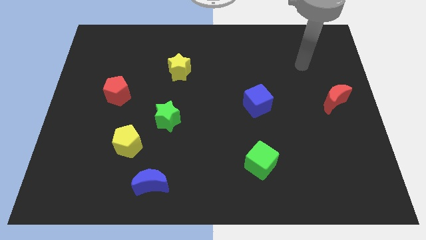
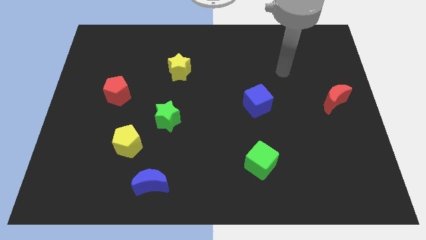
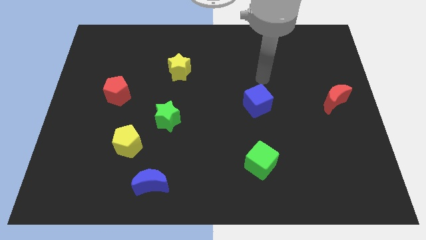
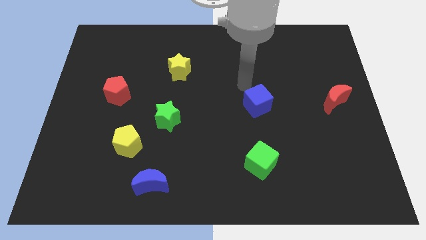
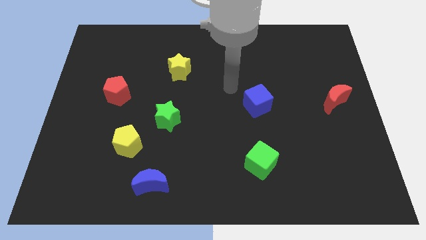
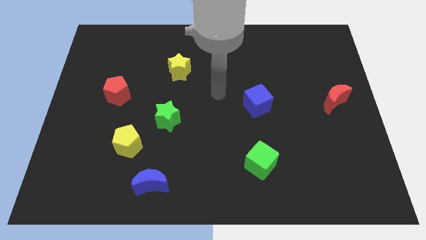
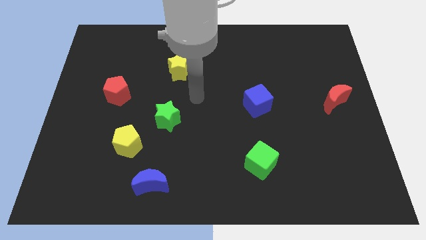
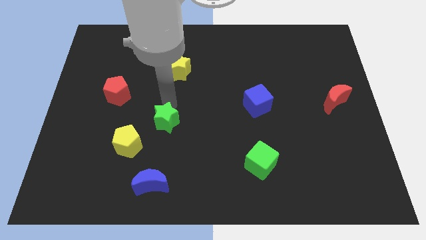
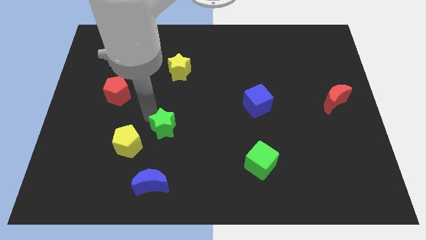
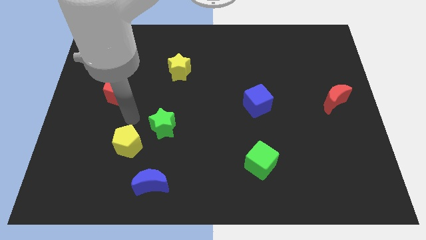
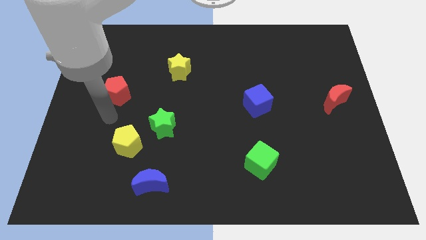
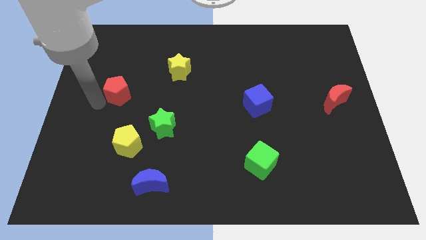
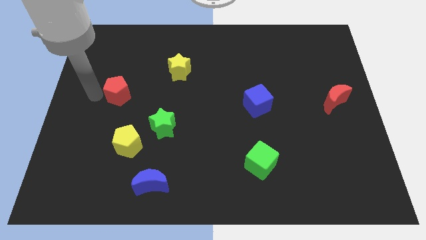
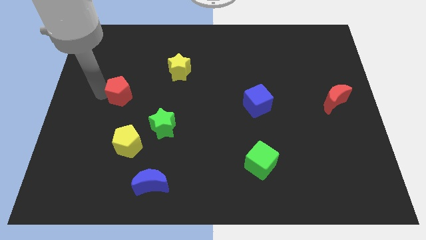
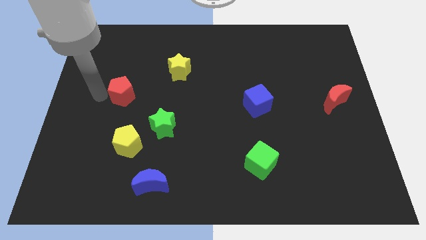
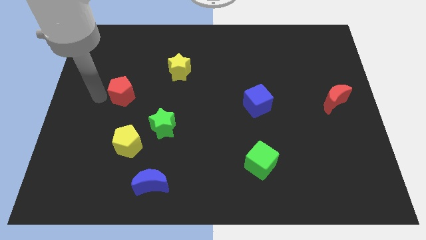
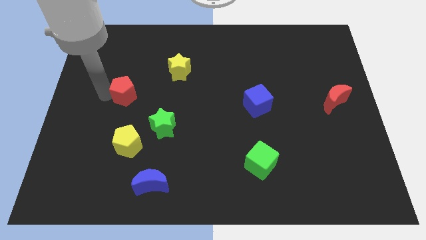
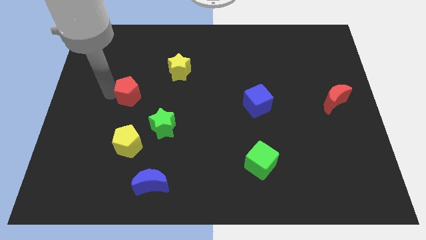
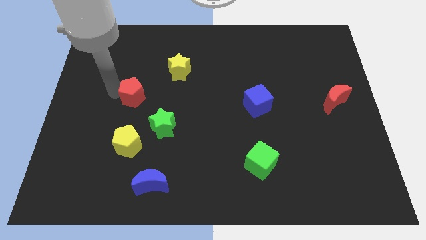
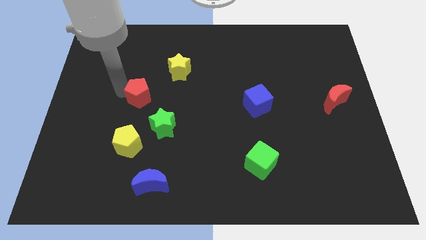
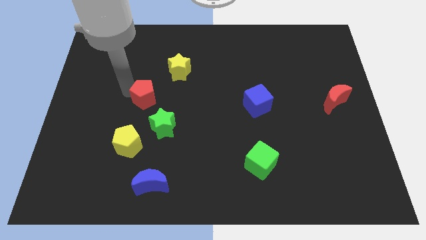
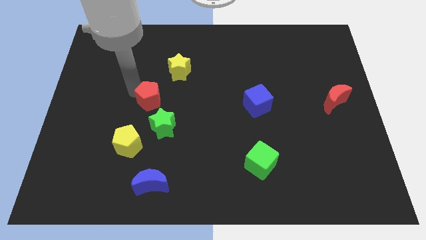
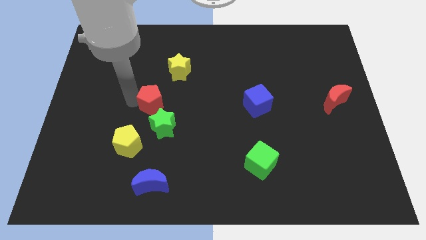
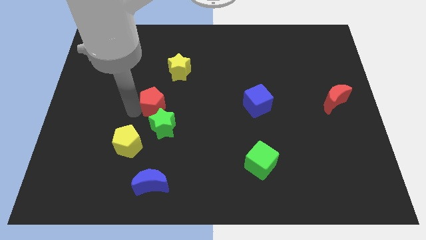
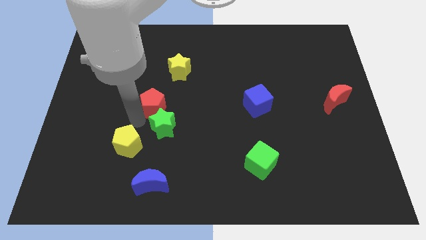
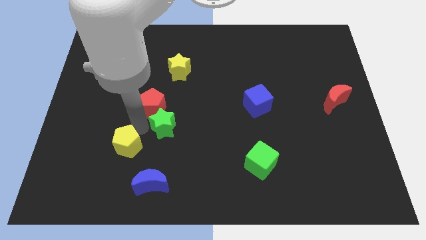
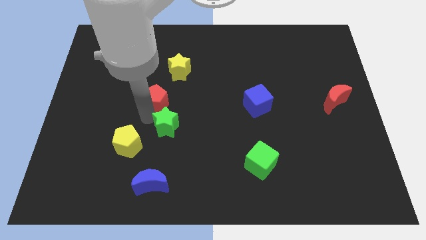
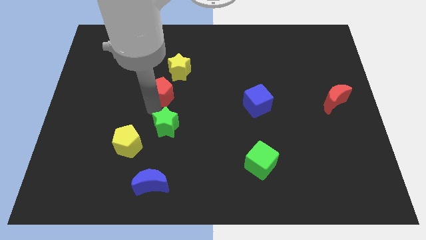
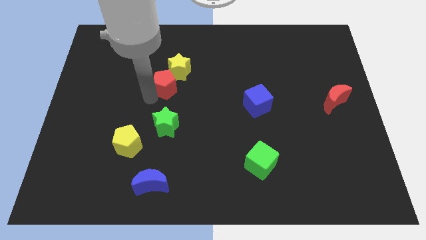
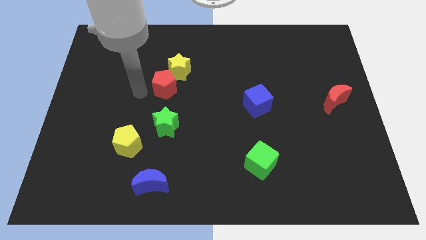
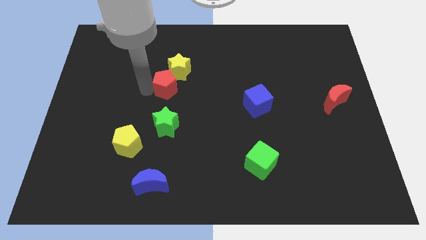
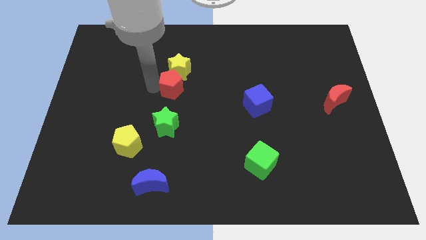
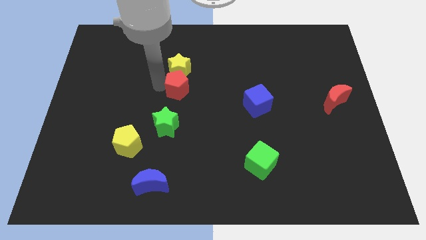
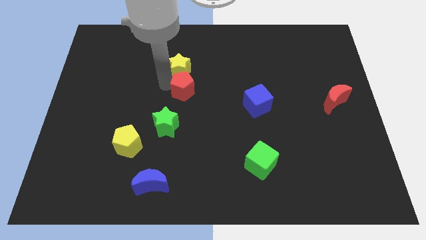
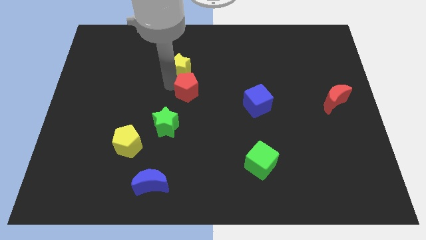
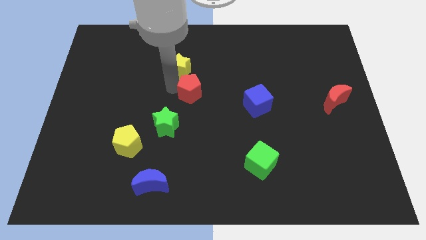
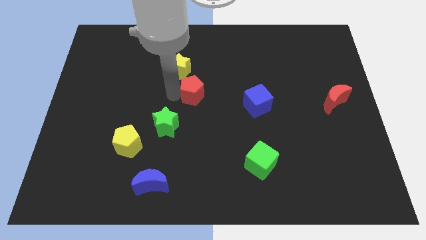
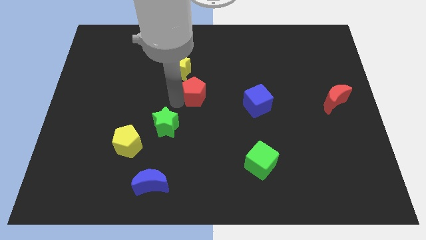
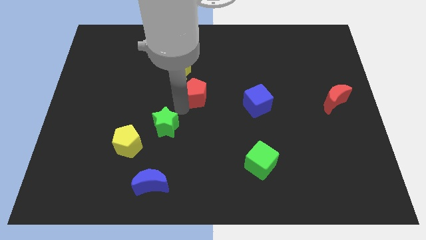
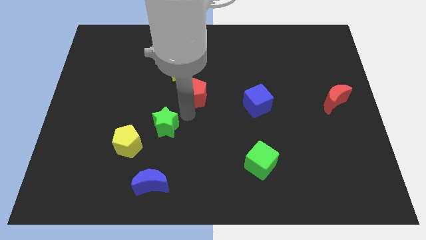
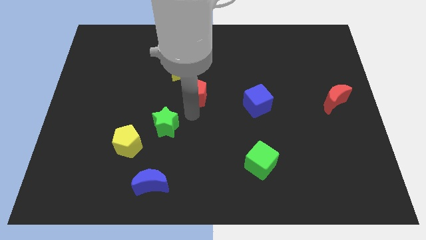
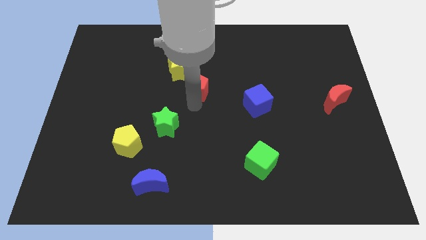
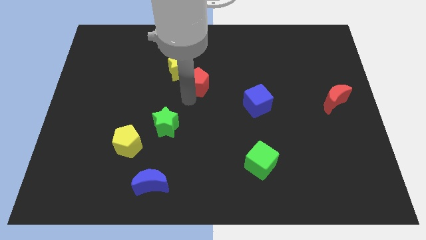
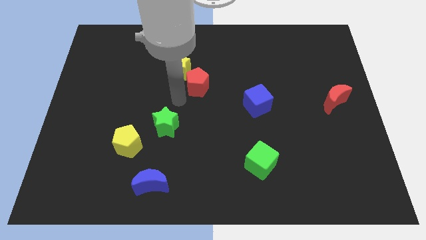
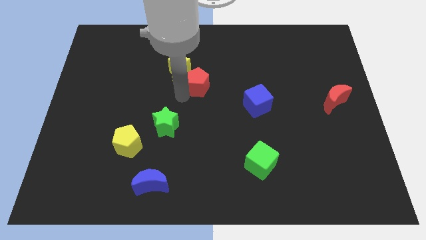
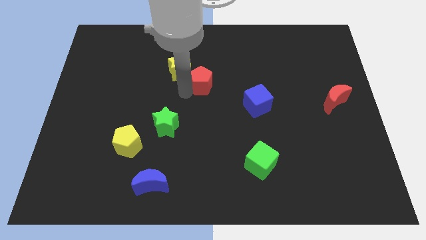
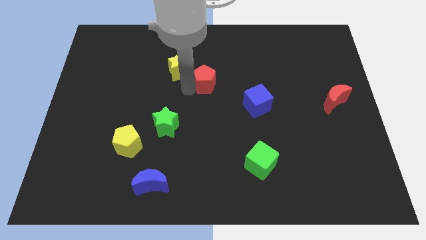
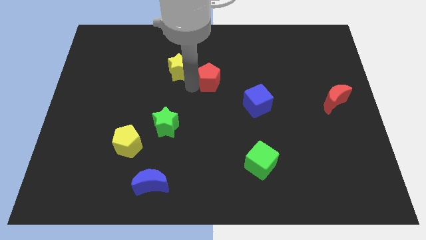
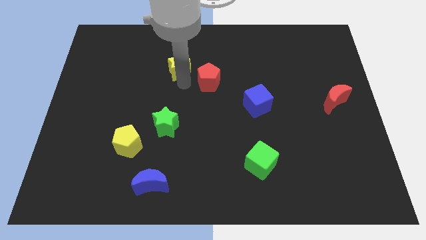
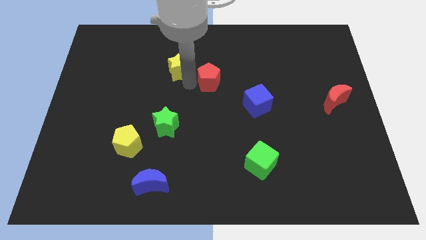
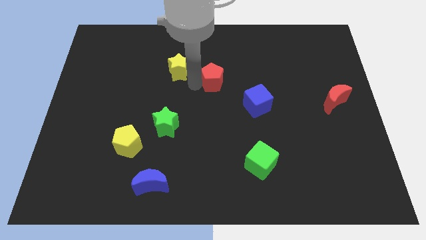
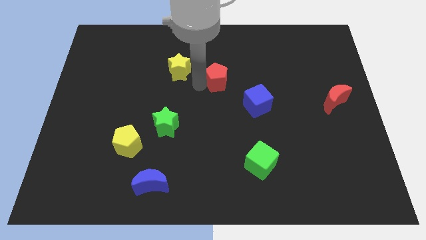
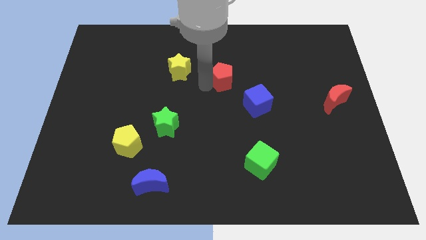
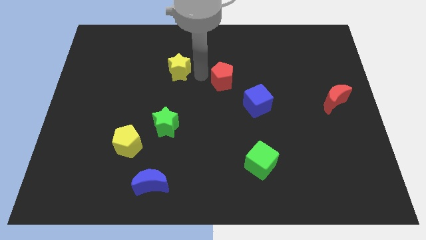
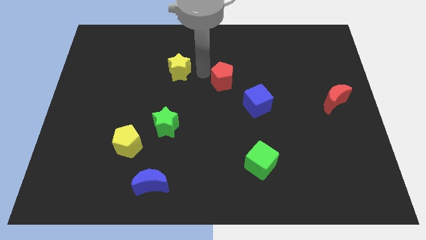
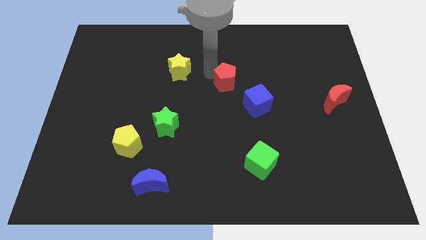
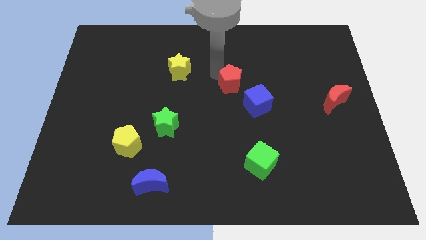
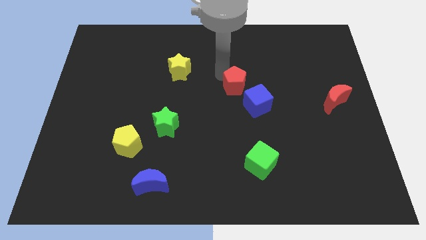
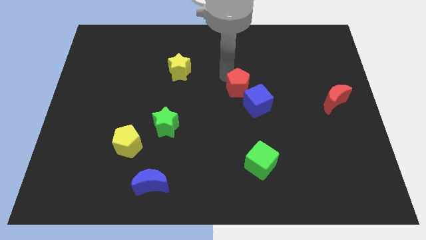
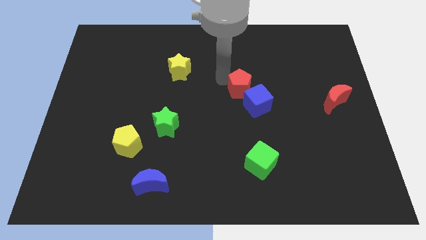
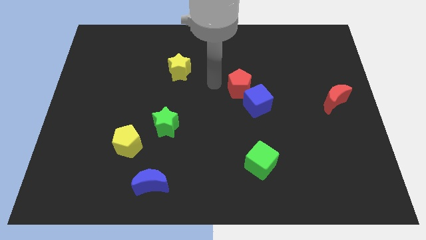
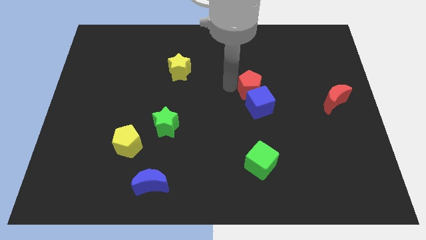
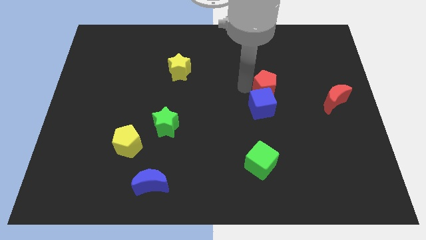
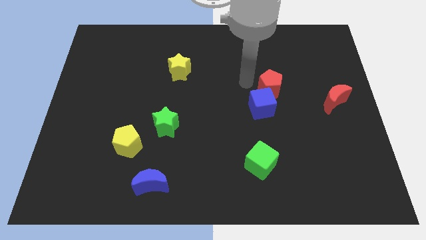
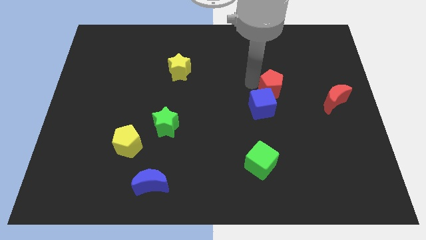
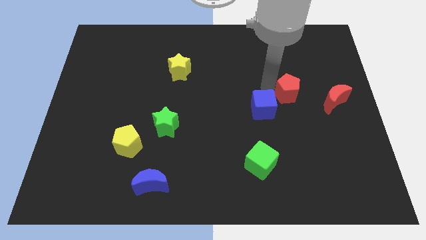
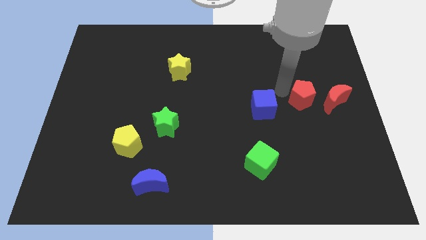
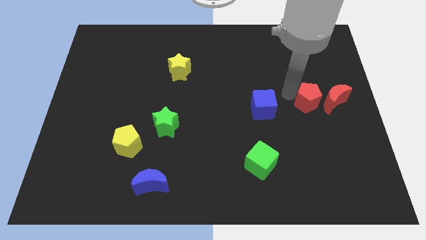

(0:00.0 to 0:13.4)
push the red pentagon close to the red moon
